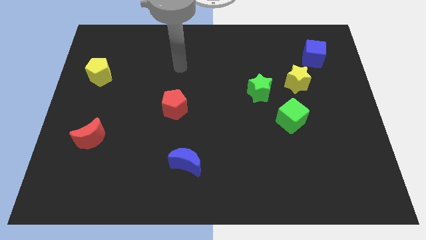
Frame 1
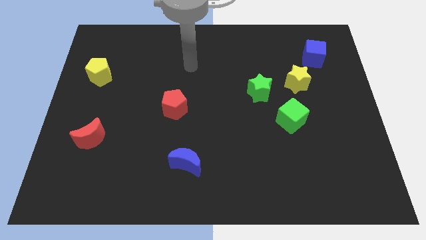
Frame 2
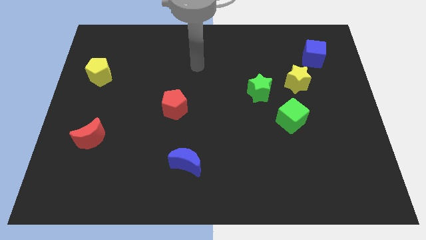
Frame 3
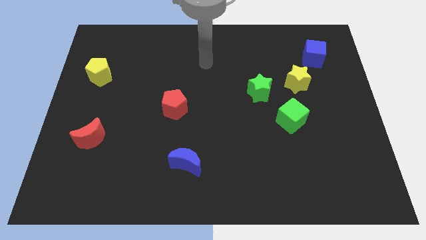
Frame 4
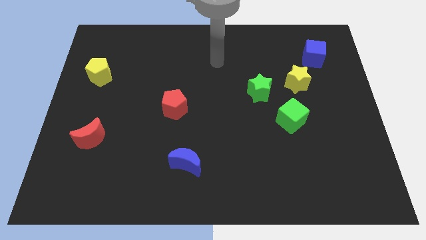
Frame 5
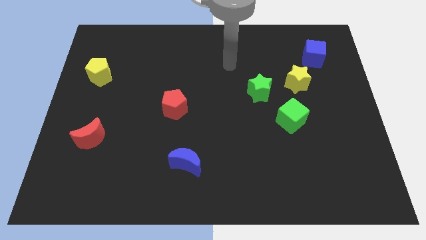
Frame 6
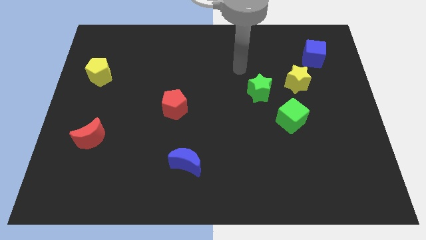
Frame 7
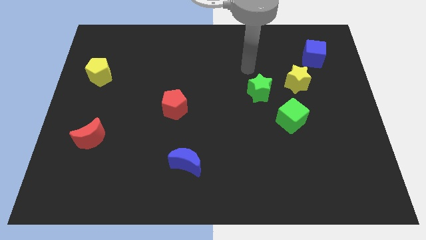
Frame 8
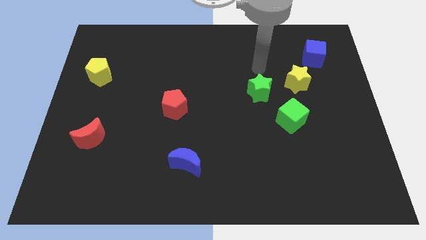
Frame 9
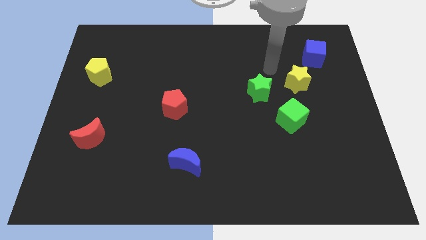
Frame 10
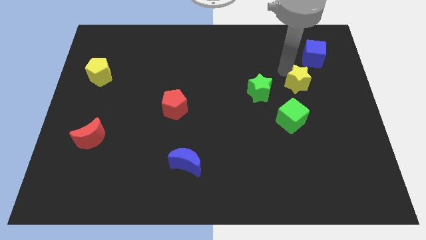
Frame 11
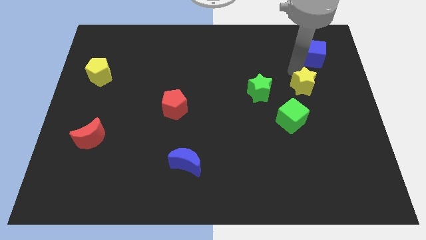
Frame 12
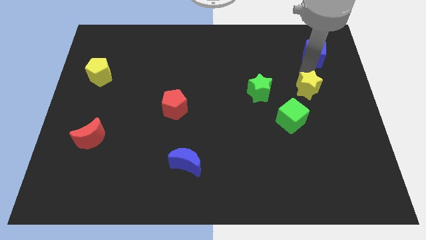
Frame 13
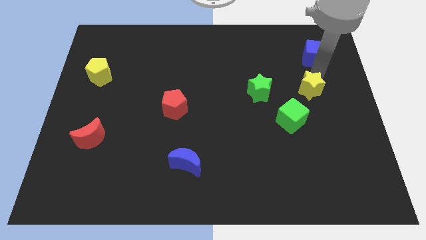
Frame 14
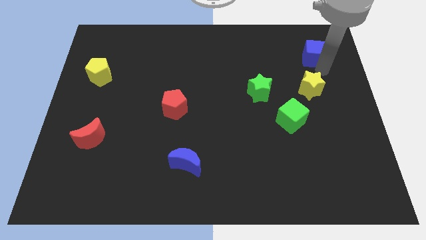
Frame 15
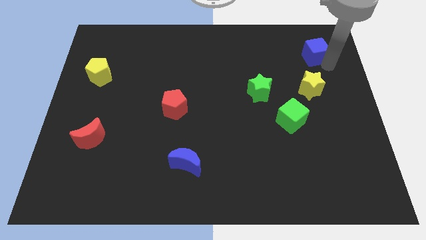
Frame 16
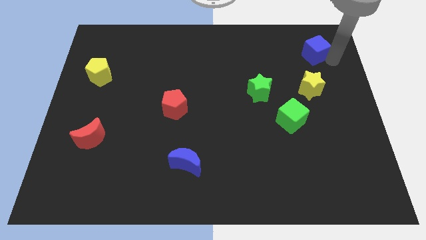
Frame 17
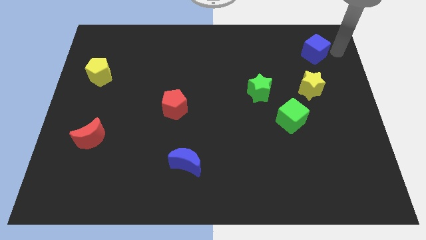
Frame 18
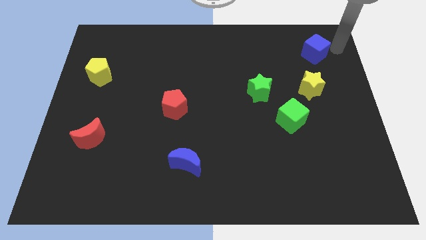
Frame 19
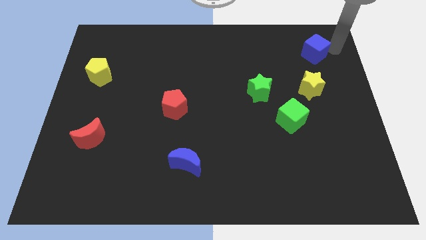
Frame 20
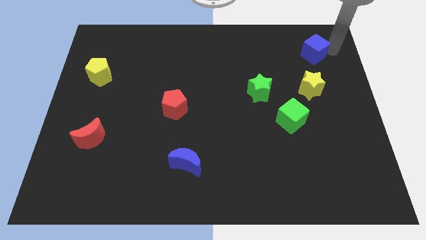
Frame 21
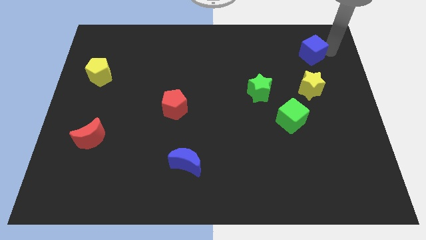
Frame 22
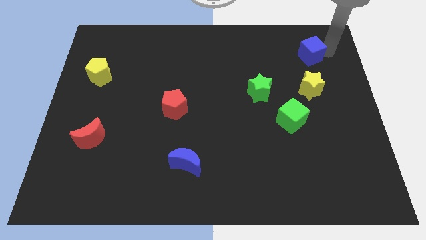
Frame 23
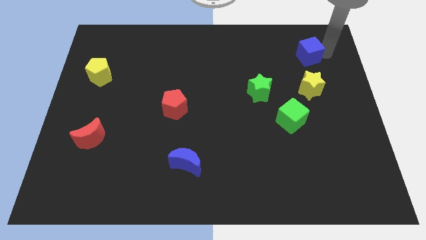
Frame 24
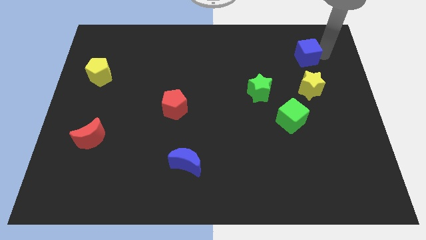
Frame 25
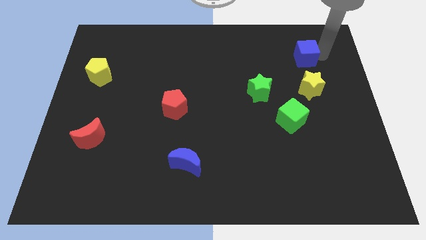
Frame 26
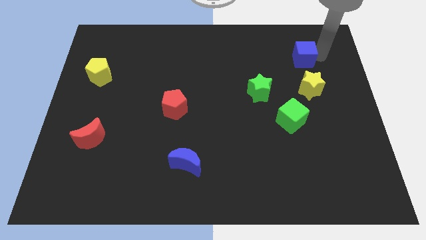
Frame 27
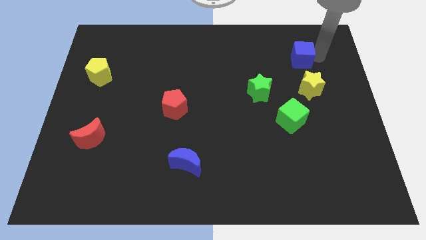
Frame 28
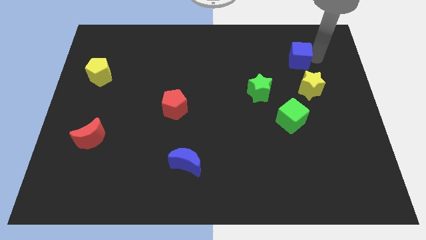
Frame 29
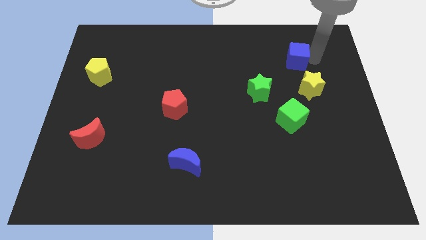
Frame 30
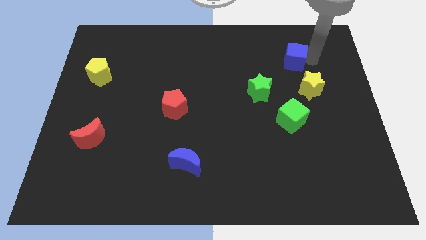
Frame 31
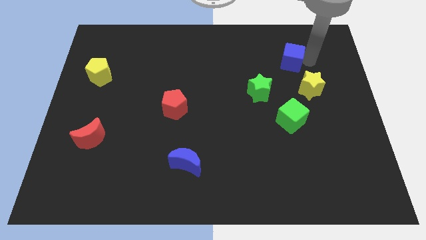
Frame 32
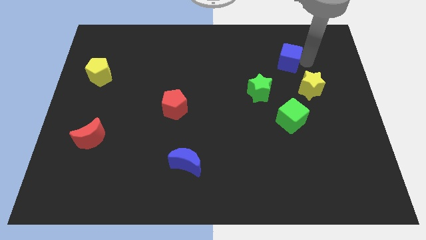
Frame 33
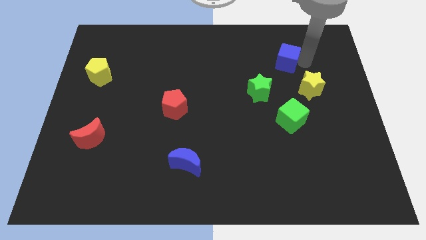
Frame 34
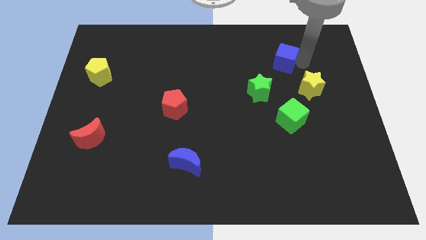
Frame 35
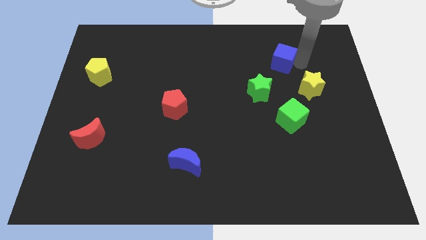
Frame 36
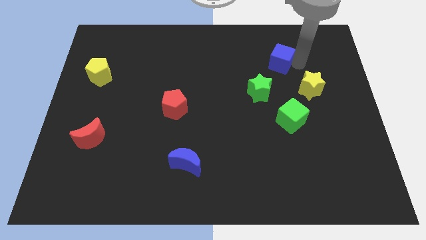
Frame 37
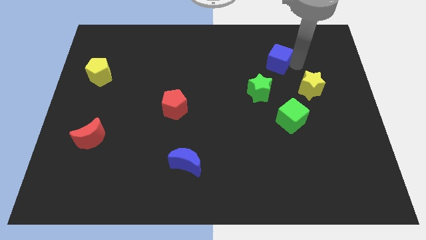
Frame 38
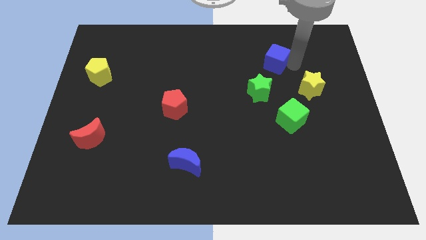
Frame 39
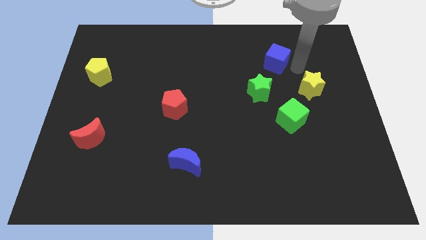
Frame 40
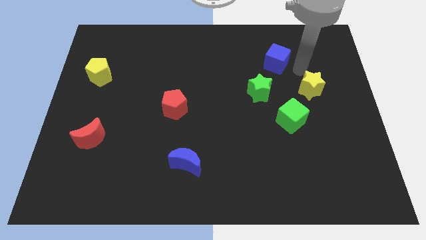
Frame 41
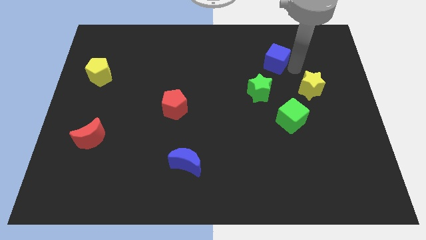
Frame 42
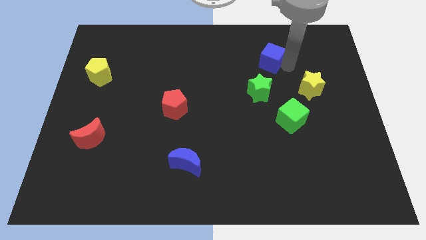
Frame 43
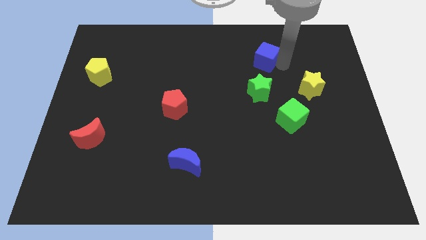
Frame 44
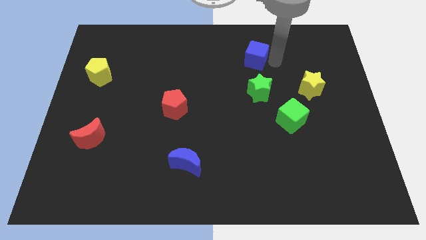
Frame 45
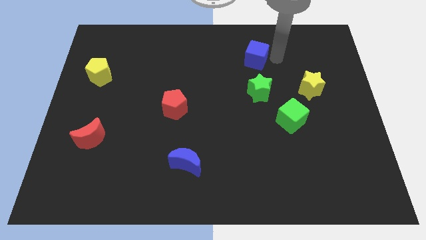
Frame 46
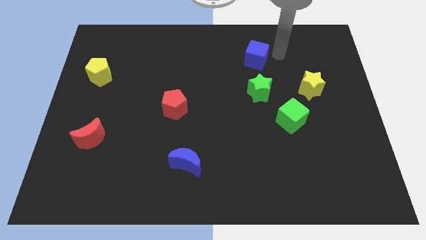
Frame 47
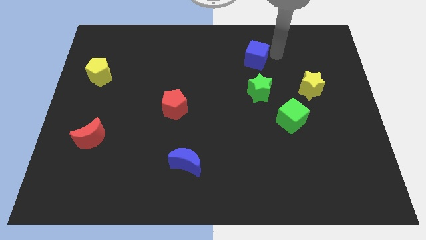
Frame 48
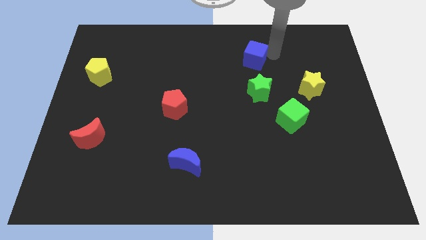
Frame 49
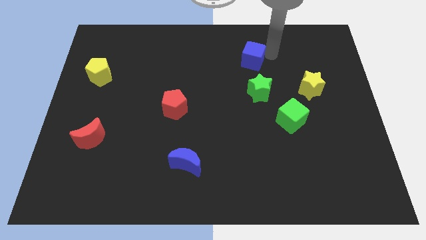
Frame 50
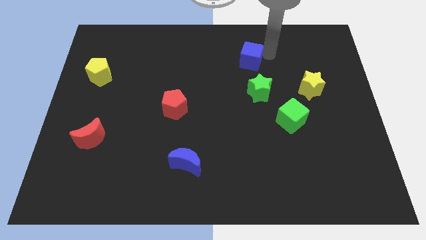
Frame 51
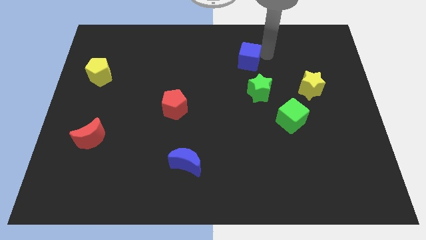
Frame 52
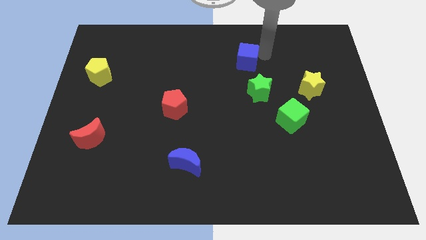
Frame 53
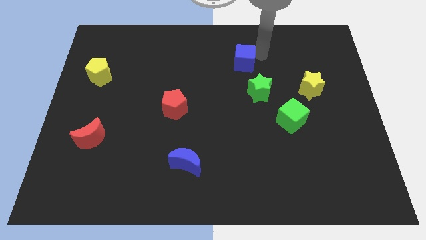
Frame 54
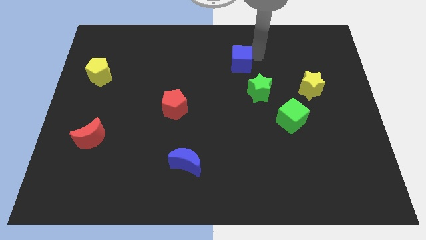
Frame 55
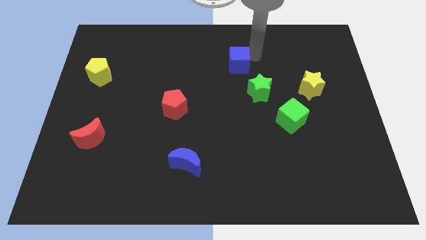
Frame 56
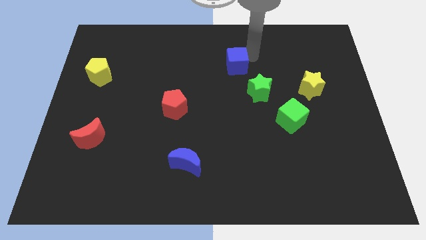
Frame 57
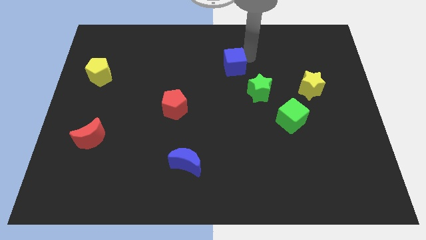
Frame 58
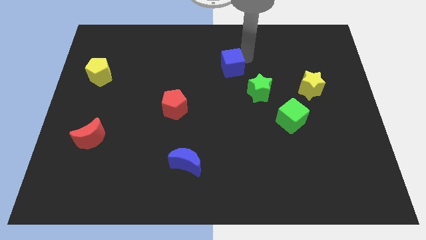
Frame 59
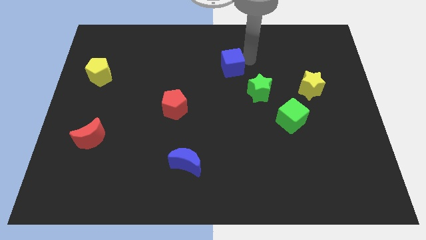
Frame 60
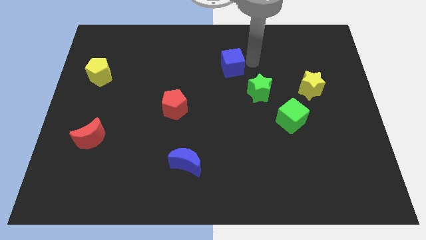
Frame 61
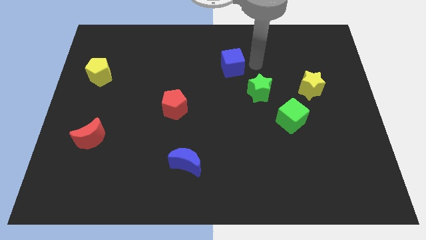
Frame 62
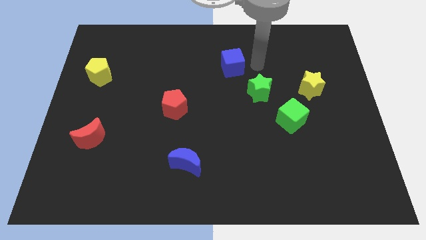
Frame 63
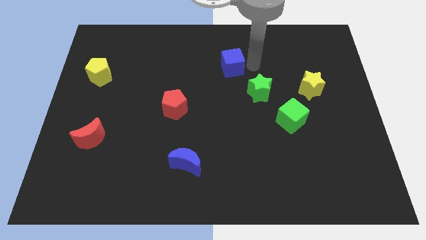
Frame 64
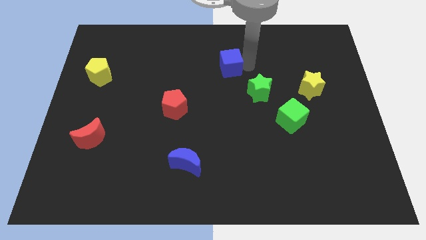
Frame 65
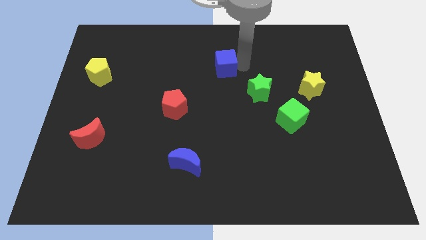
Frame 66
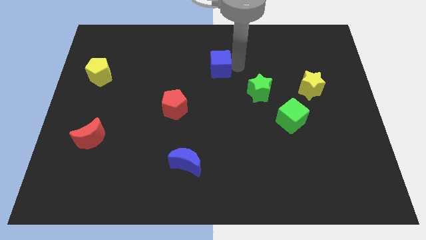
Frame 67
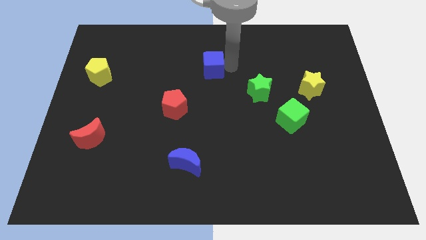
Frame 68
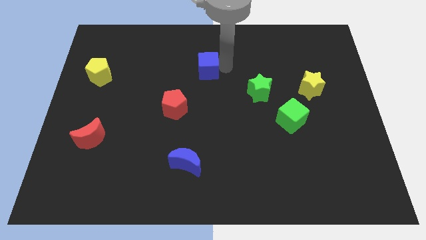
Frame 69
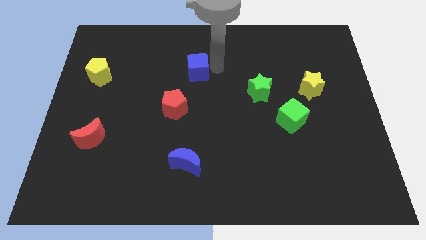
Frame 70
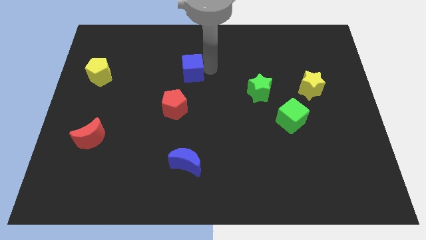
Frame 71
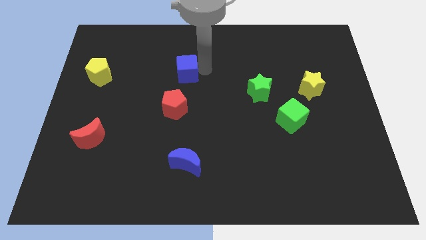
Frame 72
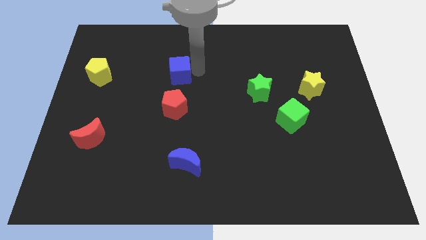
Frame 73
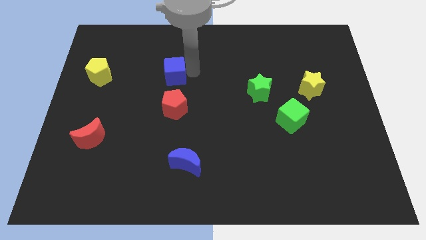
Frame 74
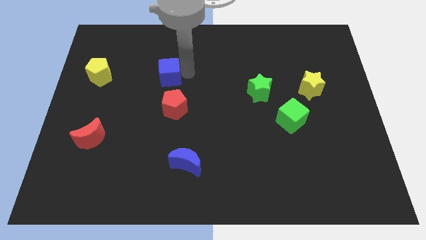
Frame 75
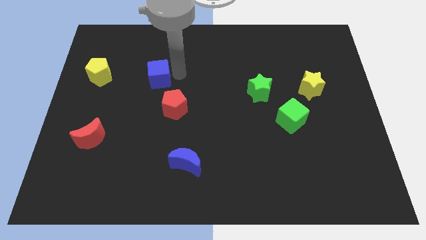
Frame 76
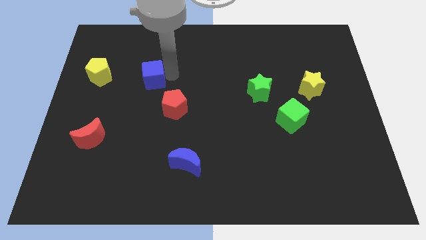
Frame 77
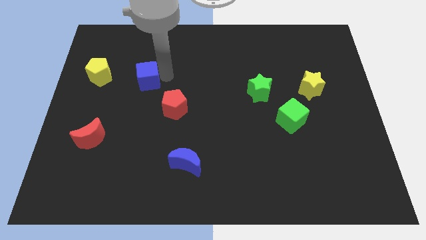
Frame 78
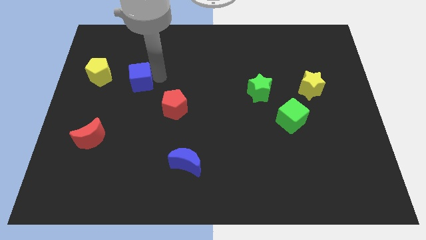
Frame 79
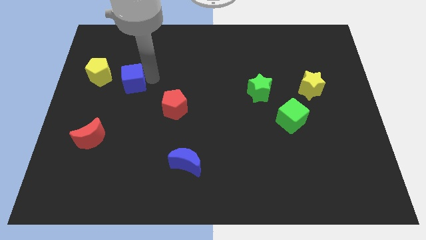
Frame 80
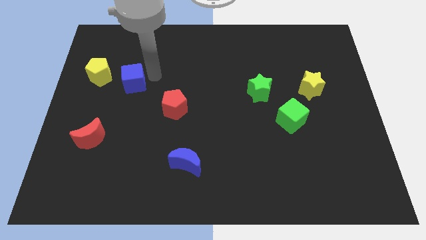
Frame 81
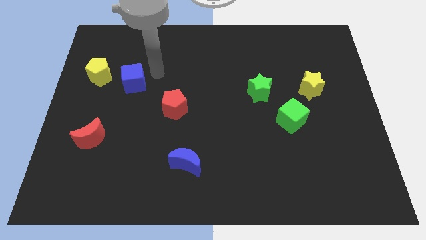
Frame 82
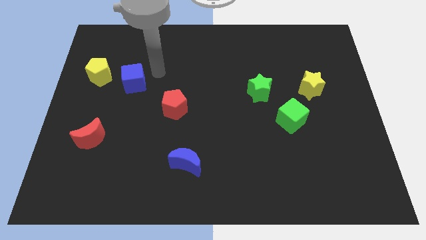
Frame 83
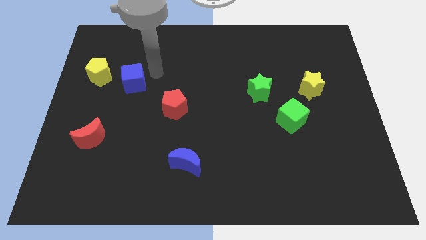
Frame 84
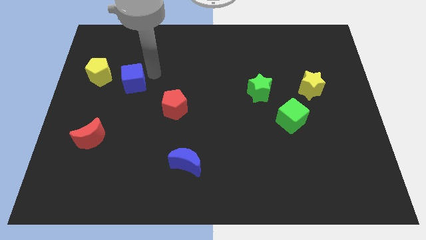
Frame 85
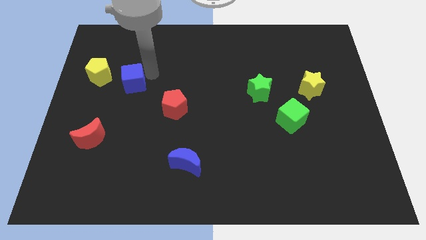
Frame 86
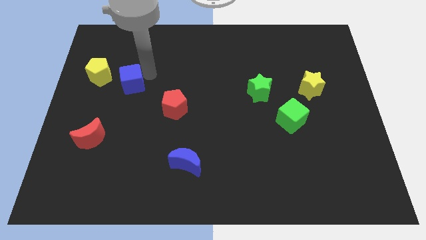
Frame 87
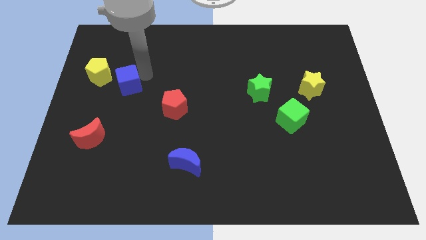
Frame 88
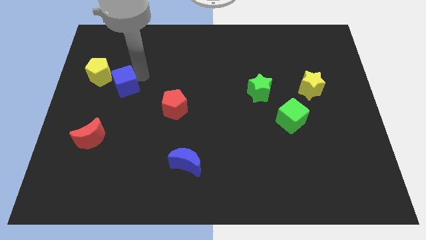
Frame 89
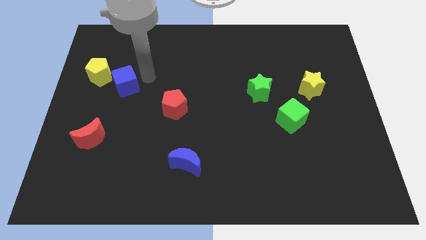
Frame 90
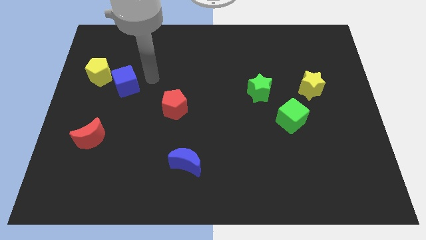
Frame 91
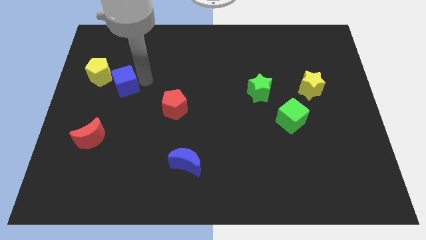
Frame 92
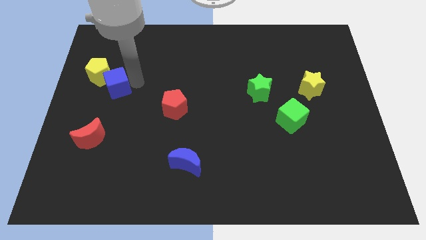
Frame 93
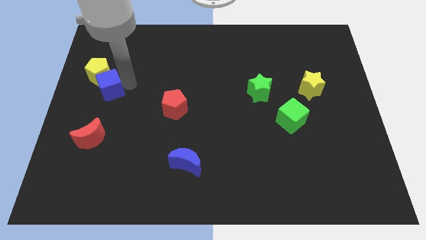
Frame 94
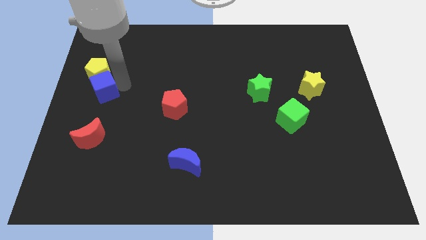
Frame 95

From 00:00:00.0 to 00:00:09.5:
move the blue cube to the center left
